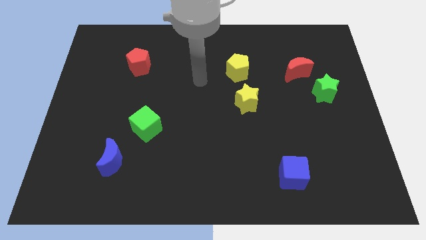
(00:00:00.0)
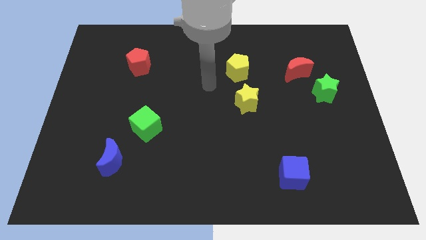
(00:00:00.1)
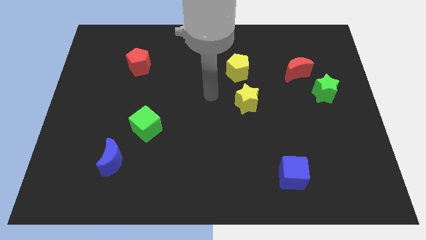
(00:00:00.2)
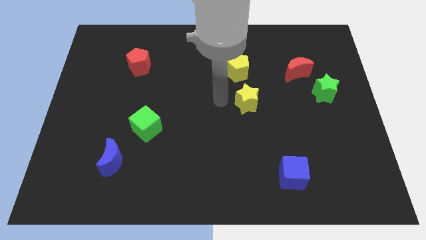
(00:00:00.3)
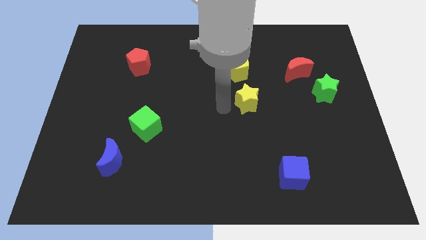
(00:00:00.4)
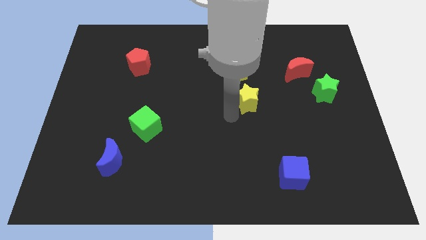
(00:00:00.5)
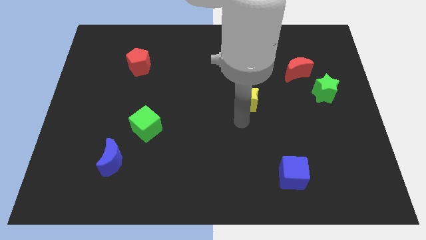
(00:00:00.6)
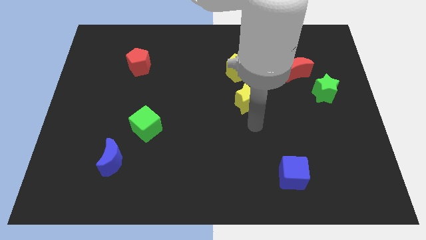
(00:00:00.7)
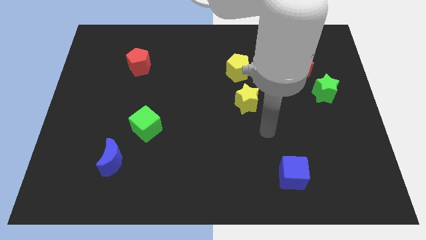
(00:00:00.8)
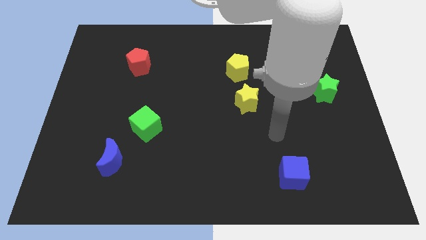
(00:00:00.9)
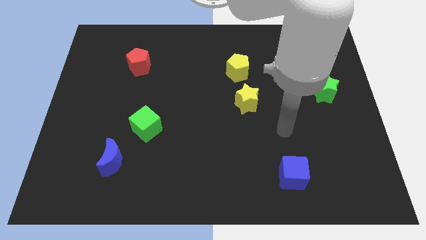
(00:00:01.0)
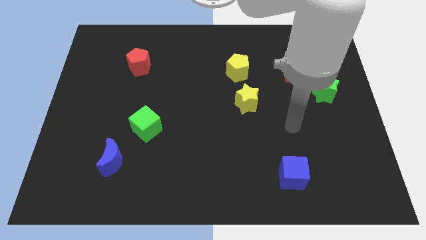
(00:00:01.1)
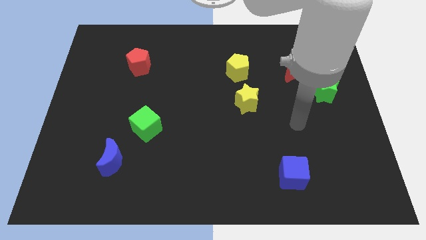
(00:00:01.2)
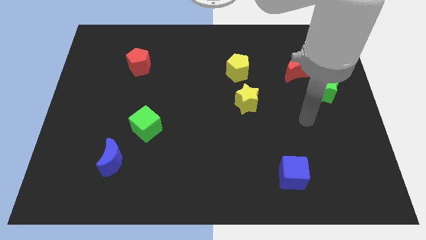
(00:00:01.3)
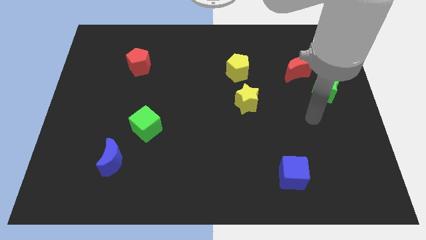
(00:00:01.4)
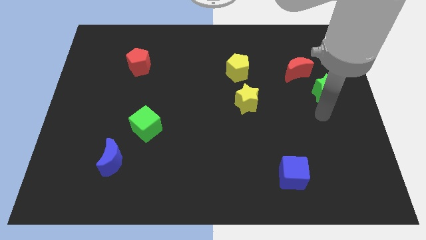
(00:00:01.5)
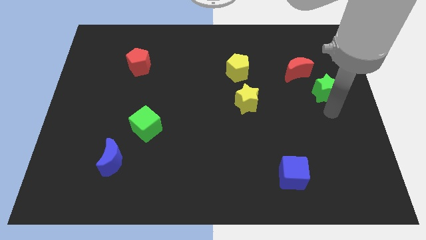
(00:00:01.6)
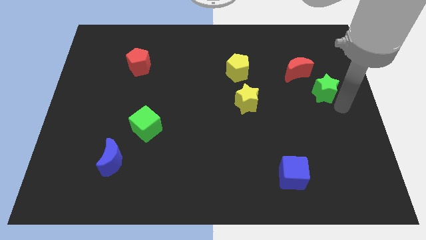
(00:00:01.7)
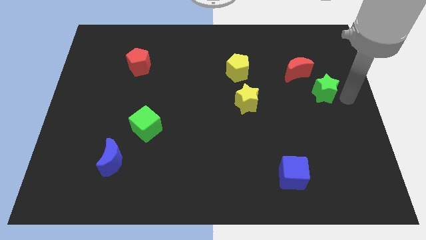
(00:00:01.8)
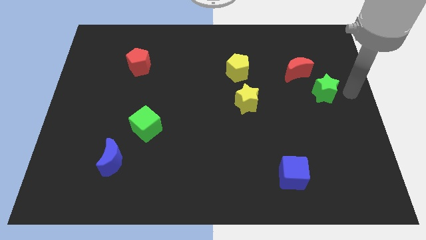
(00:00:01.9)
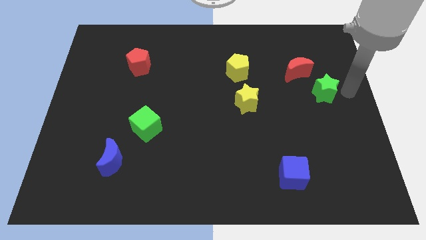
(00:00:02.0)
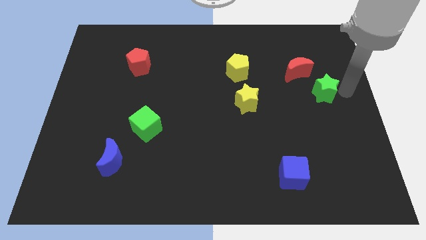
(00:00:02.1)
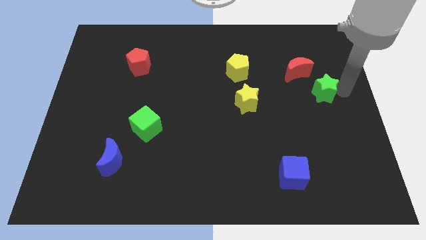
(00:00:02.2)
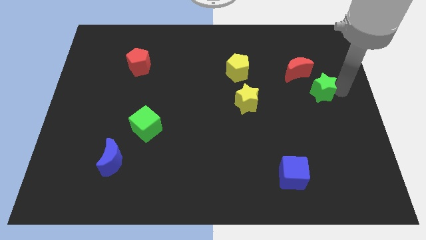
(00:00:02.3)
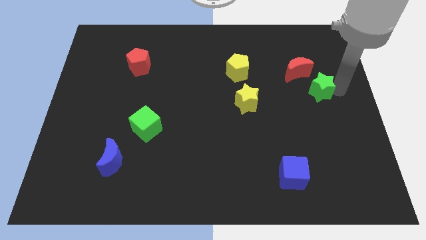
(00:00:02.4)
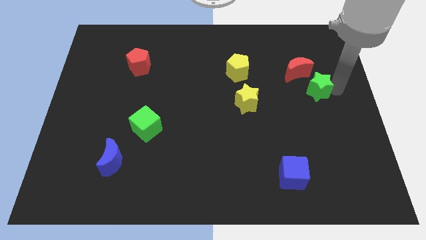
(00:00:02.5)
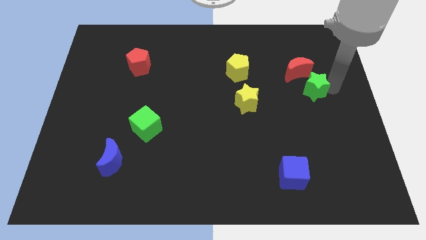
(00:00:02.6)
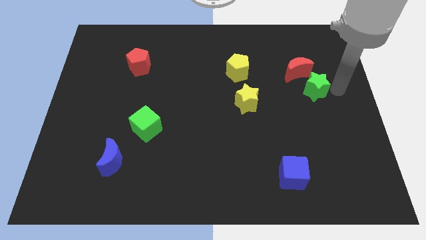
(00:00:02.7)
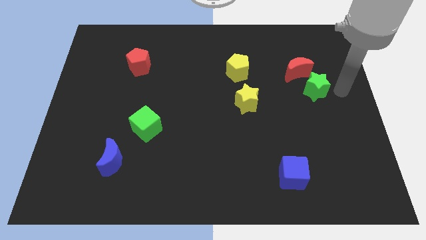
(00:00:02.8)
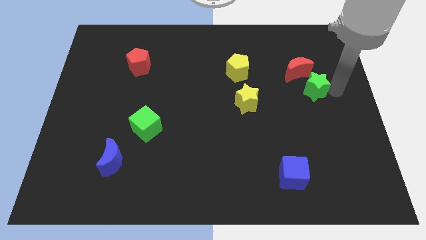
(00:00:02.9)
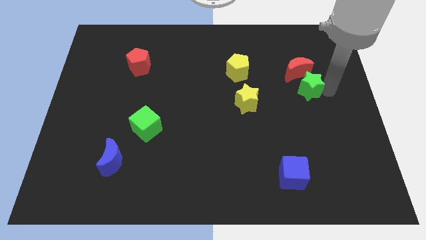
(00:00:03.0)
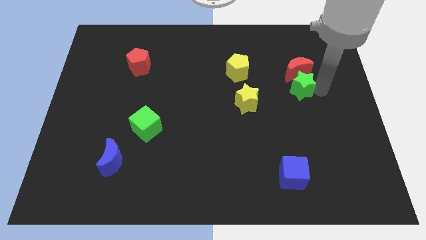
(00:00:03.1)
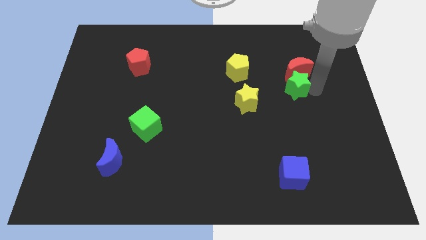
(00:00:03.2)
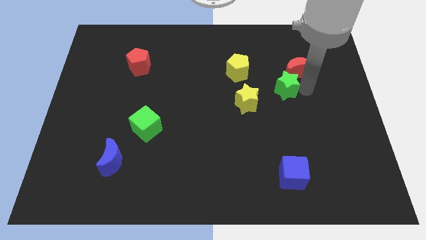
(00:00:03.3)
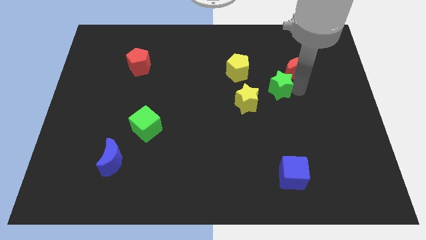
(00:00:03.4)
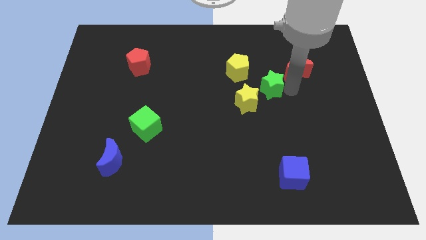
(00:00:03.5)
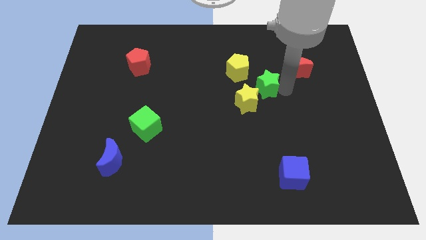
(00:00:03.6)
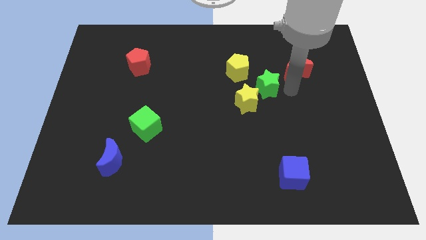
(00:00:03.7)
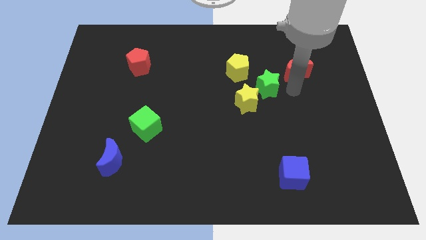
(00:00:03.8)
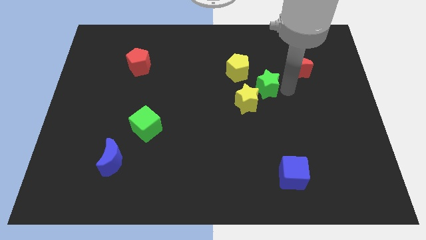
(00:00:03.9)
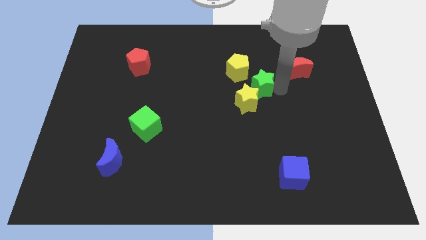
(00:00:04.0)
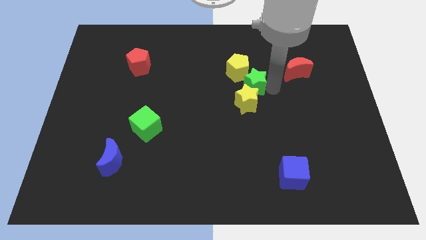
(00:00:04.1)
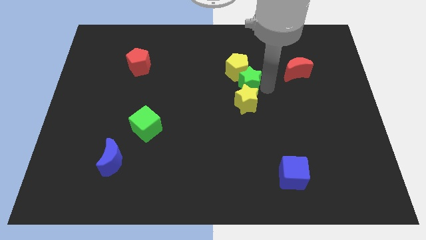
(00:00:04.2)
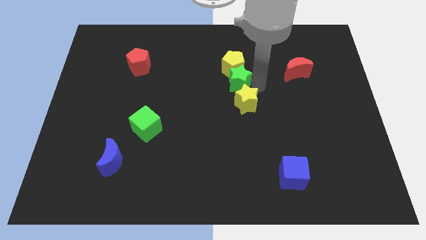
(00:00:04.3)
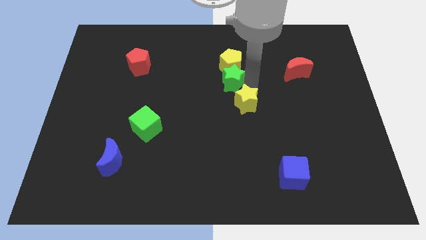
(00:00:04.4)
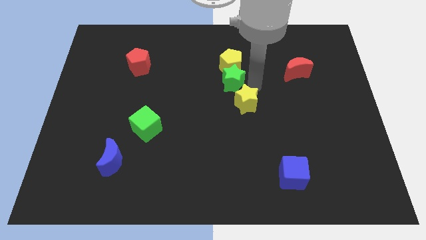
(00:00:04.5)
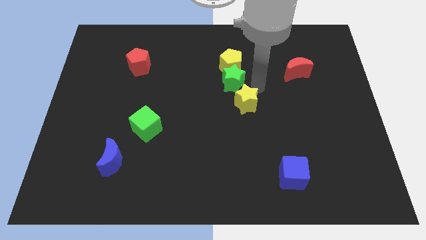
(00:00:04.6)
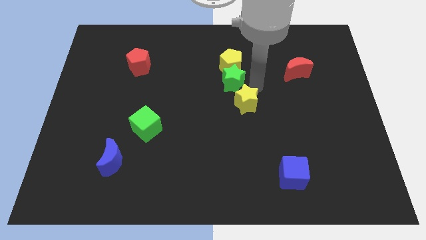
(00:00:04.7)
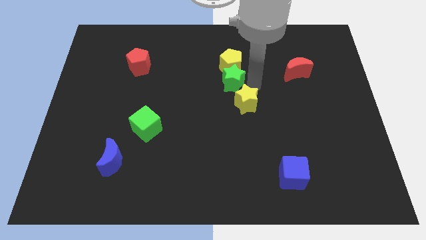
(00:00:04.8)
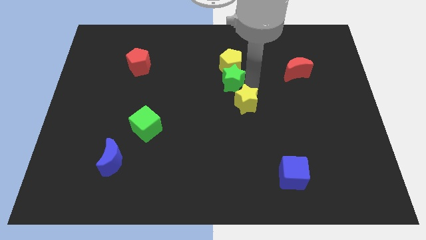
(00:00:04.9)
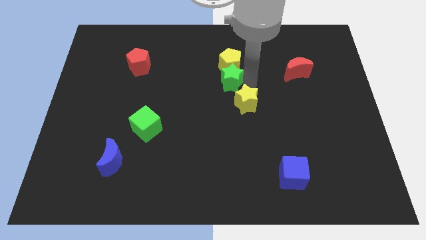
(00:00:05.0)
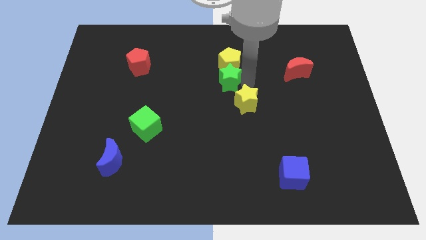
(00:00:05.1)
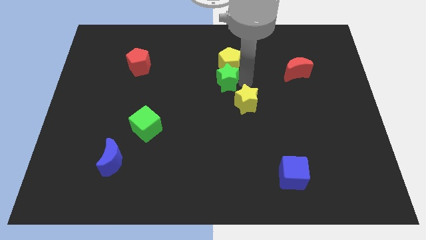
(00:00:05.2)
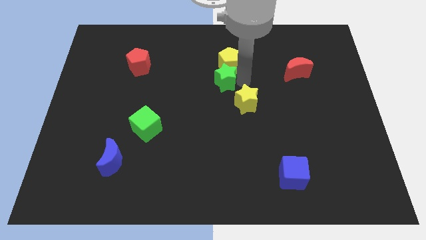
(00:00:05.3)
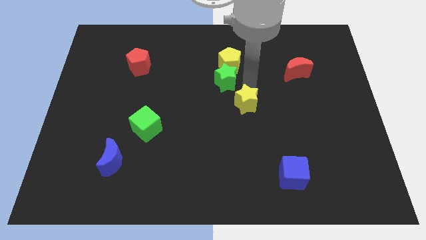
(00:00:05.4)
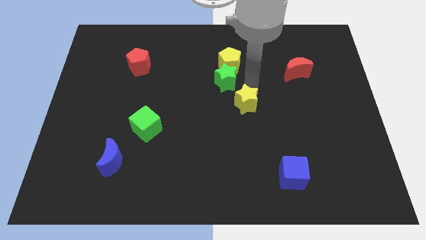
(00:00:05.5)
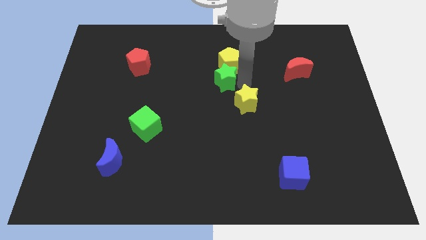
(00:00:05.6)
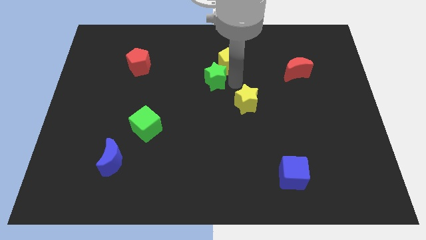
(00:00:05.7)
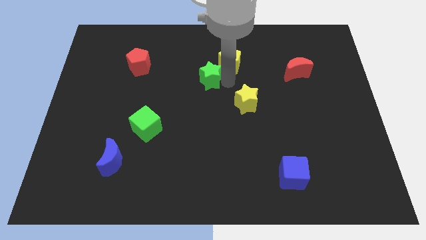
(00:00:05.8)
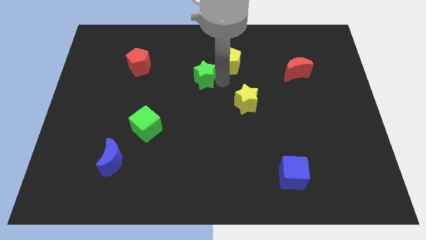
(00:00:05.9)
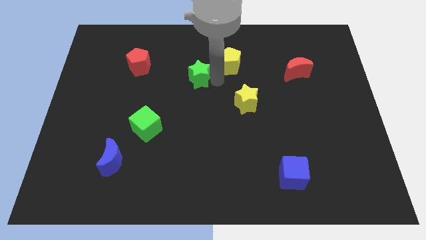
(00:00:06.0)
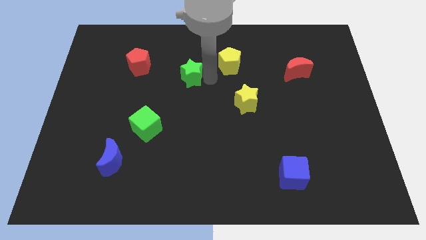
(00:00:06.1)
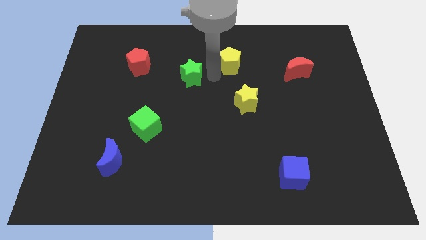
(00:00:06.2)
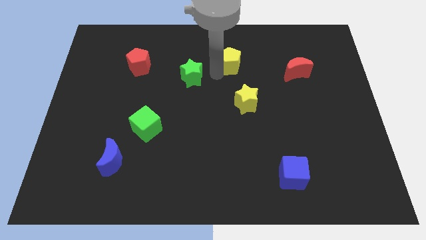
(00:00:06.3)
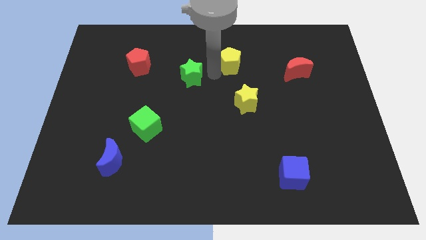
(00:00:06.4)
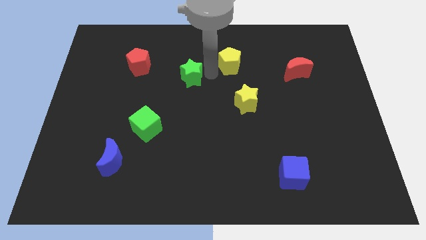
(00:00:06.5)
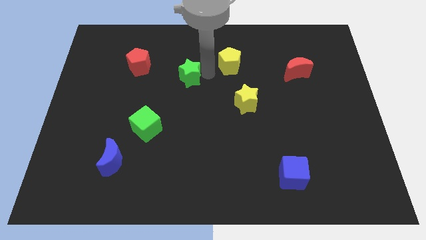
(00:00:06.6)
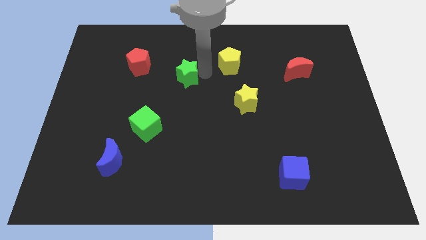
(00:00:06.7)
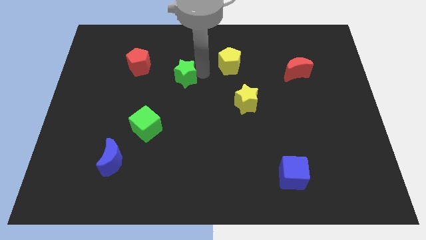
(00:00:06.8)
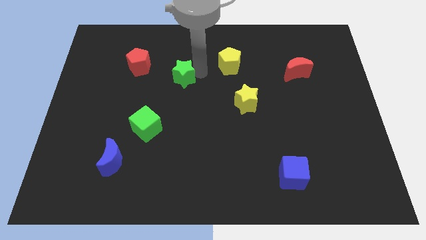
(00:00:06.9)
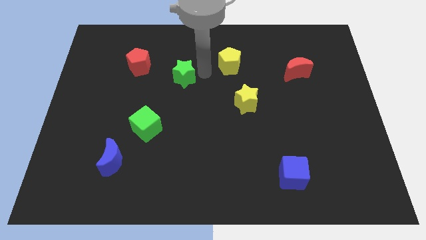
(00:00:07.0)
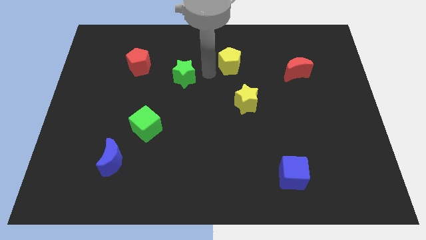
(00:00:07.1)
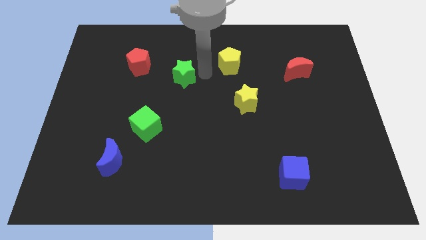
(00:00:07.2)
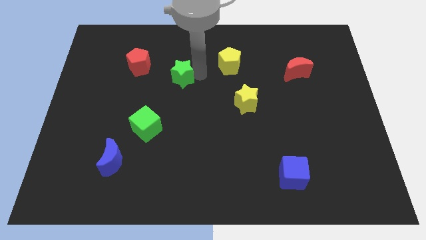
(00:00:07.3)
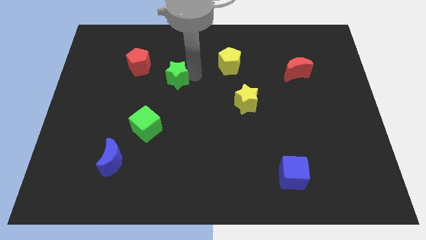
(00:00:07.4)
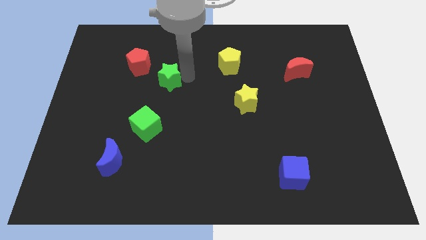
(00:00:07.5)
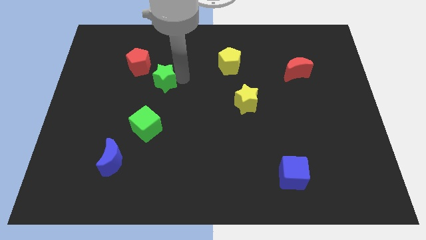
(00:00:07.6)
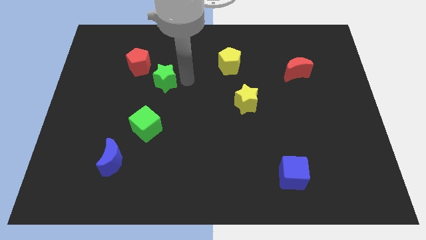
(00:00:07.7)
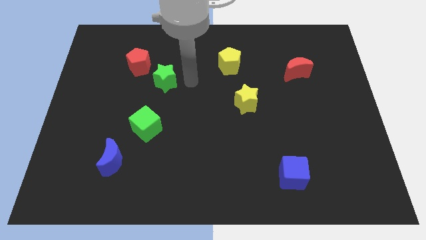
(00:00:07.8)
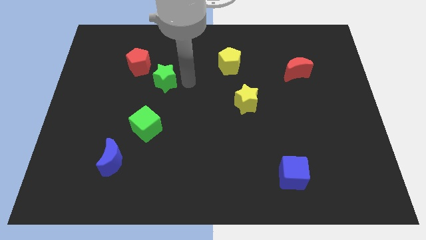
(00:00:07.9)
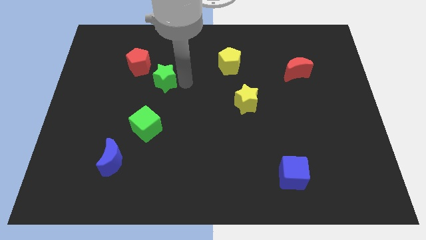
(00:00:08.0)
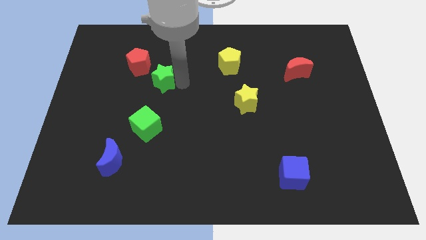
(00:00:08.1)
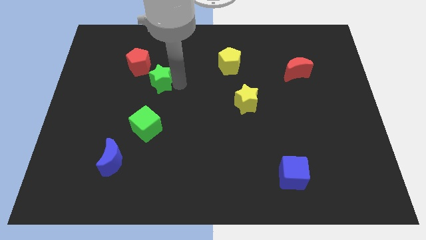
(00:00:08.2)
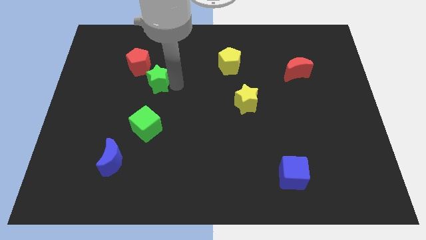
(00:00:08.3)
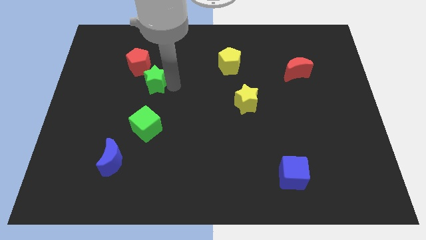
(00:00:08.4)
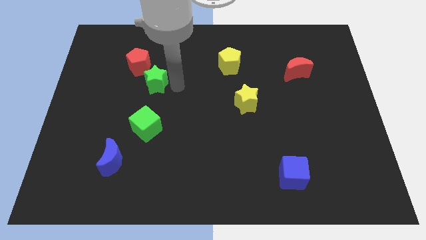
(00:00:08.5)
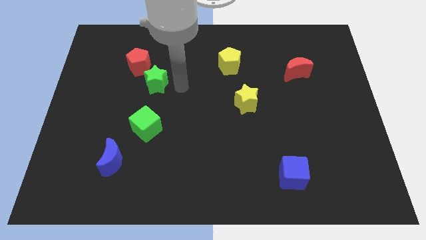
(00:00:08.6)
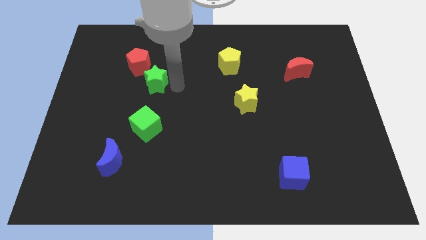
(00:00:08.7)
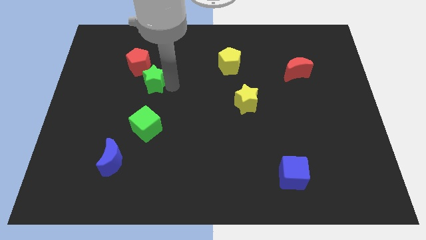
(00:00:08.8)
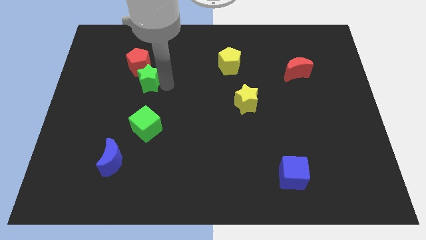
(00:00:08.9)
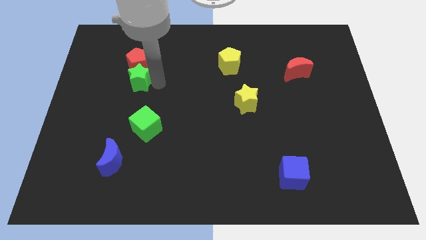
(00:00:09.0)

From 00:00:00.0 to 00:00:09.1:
move the green star diagonally down and to the left of the red pentagon
